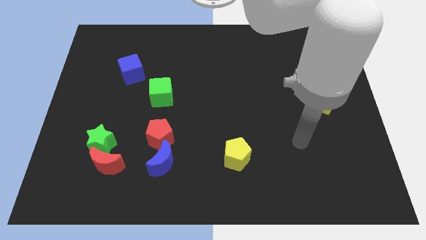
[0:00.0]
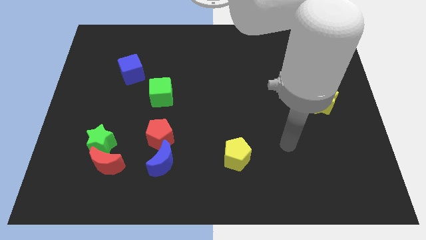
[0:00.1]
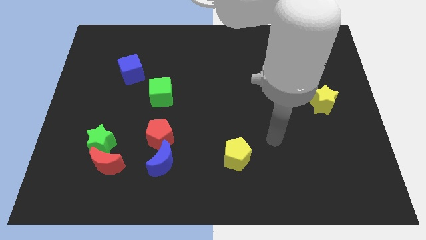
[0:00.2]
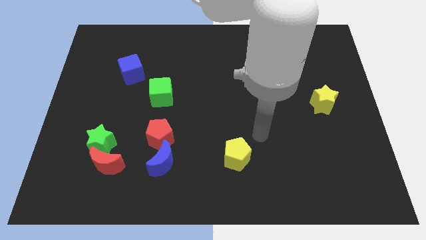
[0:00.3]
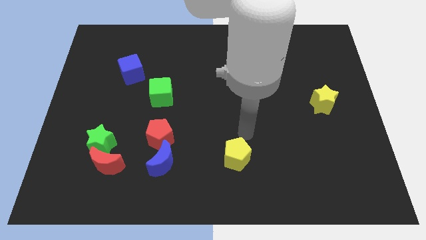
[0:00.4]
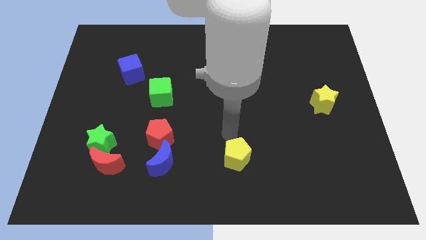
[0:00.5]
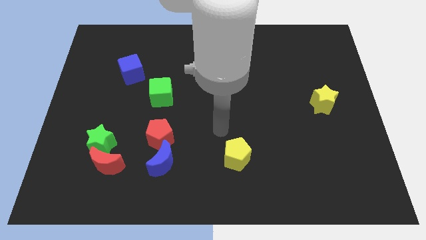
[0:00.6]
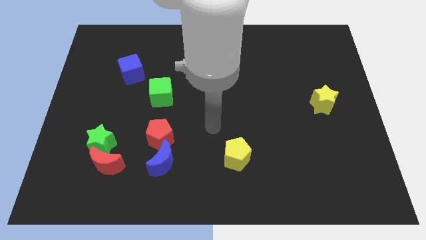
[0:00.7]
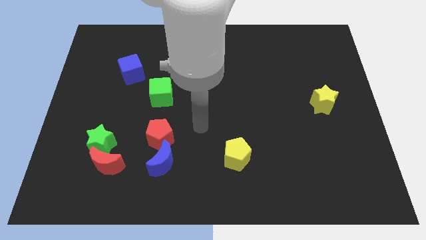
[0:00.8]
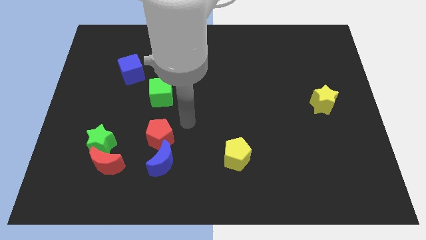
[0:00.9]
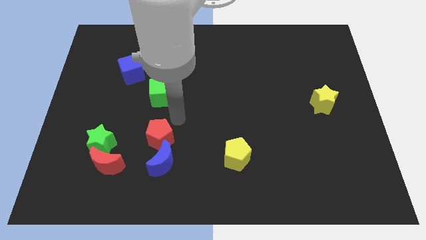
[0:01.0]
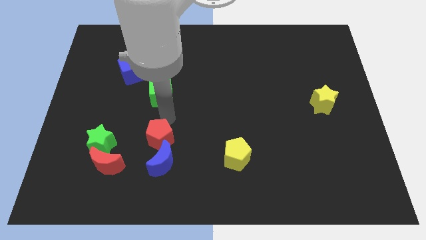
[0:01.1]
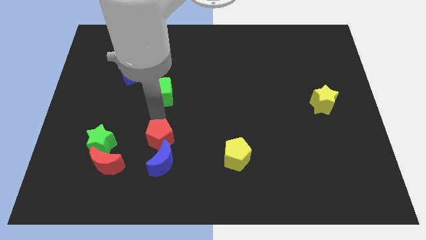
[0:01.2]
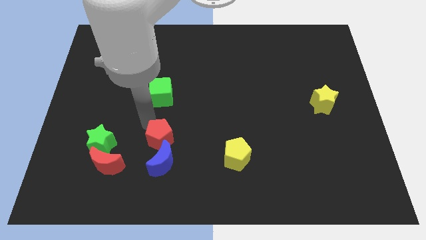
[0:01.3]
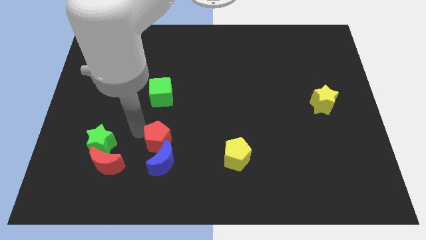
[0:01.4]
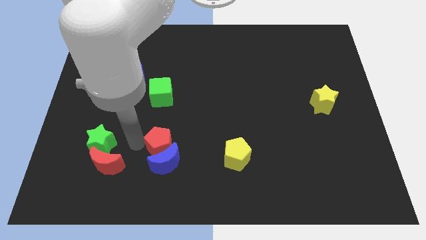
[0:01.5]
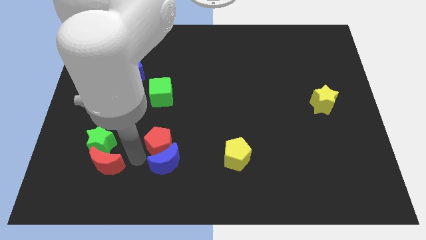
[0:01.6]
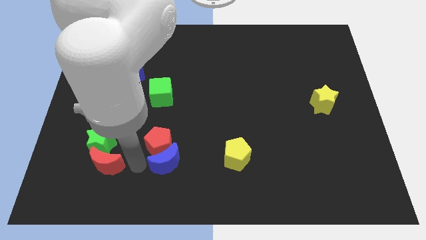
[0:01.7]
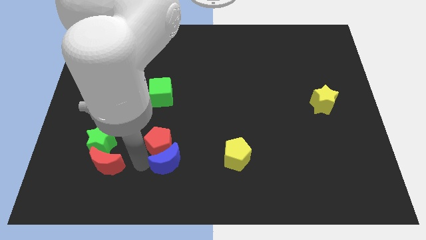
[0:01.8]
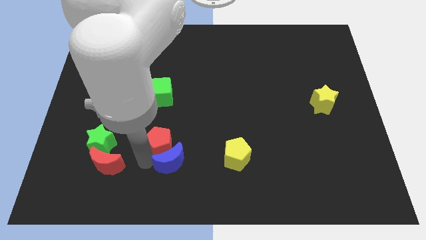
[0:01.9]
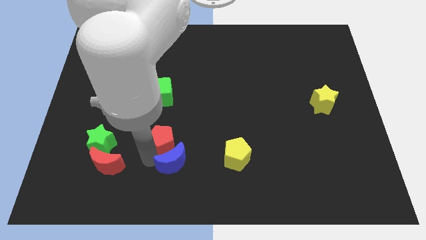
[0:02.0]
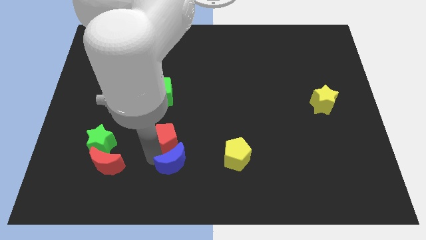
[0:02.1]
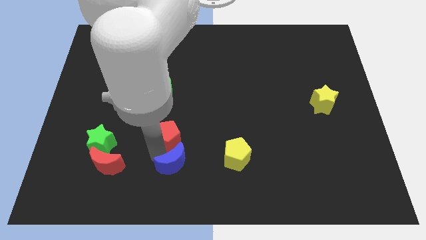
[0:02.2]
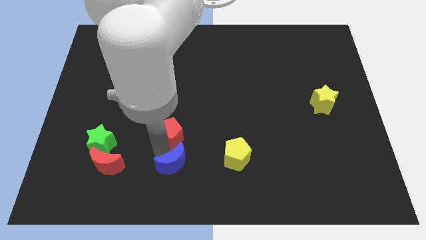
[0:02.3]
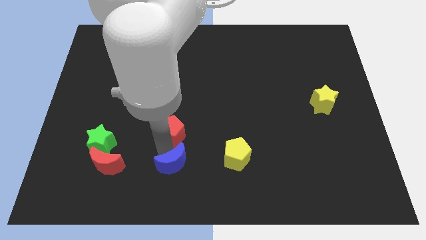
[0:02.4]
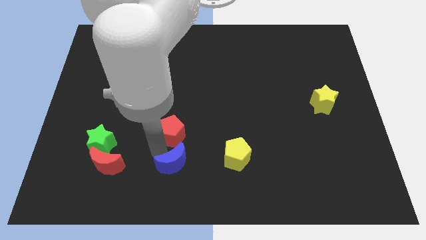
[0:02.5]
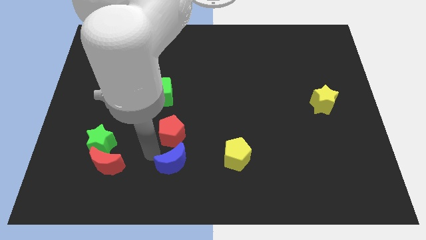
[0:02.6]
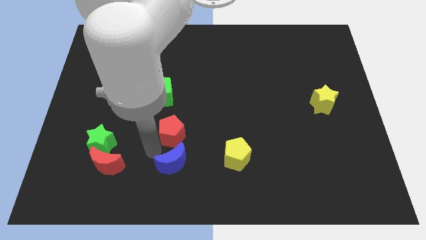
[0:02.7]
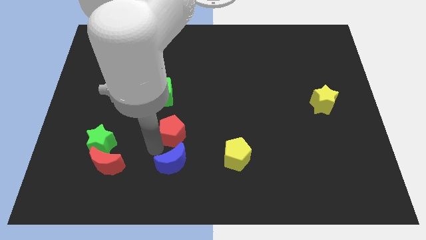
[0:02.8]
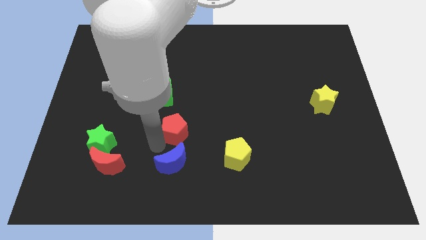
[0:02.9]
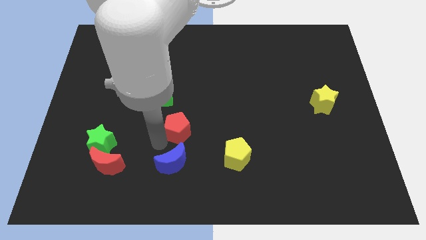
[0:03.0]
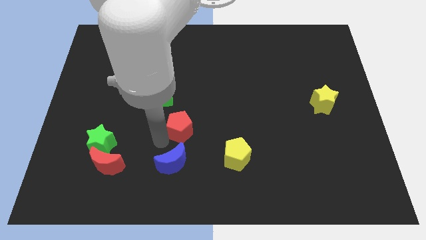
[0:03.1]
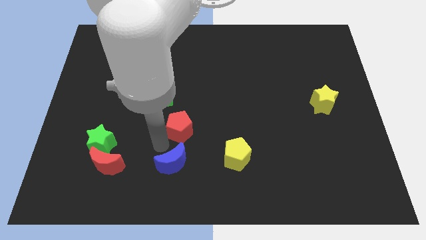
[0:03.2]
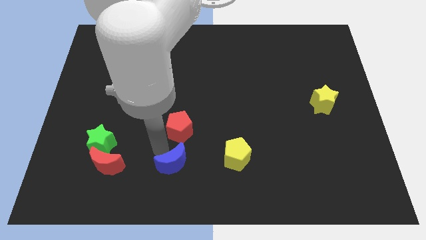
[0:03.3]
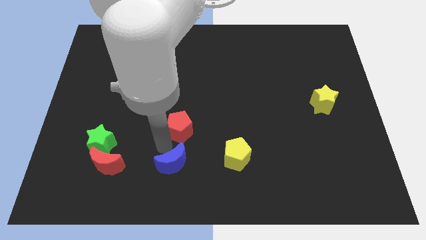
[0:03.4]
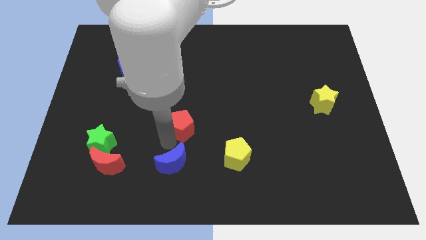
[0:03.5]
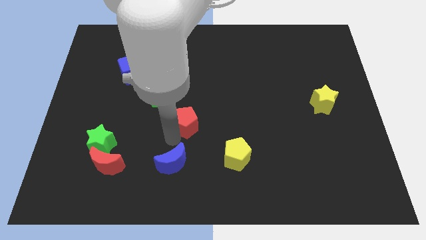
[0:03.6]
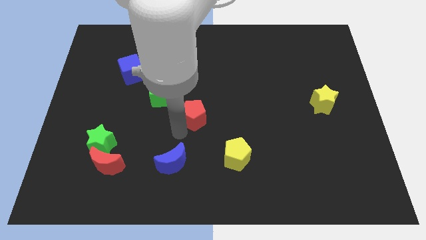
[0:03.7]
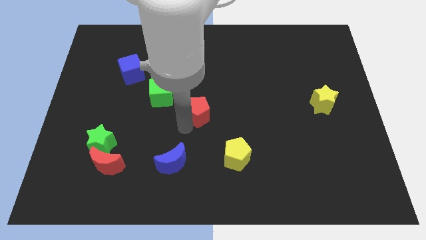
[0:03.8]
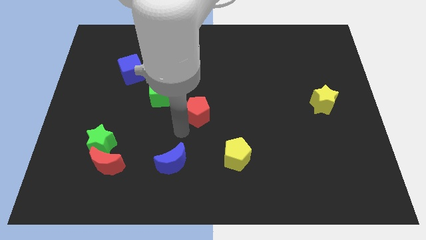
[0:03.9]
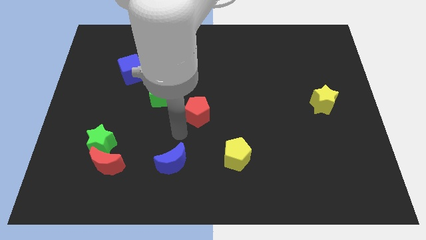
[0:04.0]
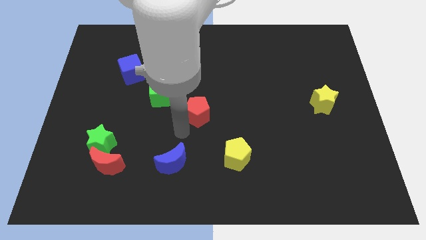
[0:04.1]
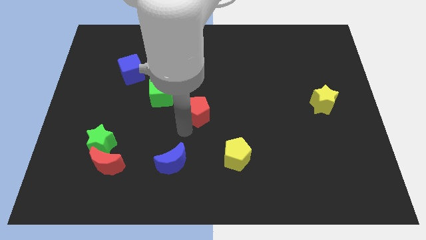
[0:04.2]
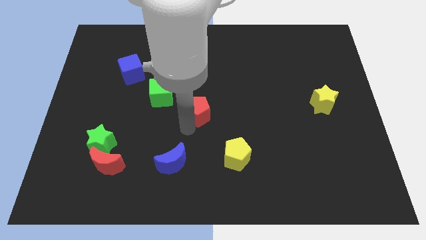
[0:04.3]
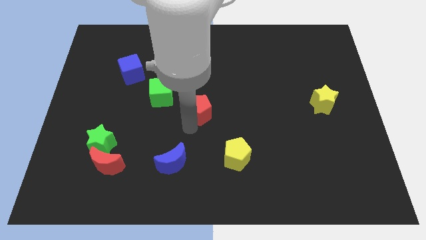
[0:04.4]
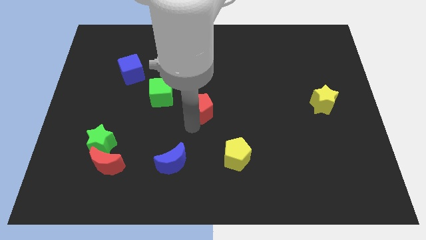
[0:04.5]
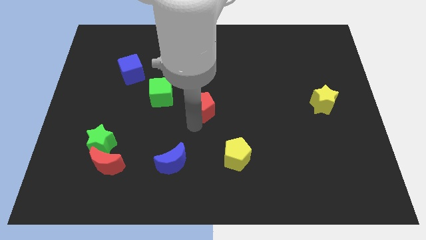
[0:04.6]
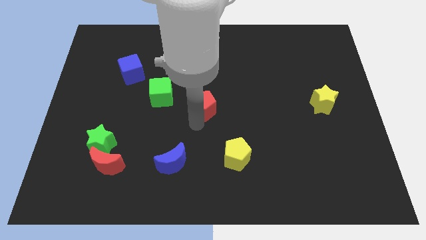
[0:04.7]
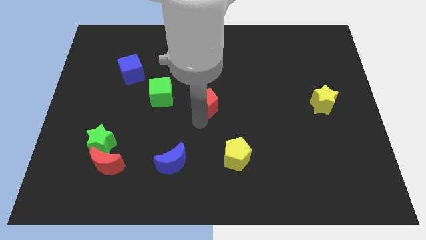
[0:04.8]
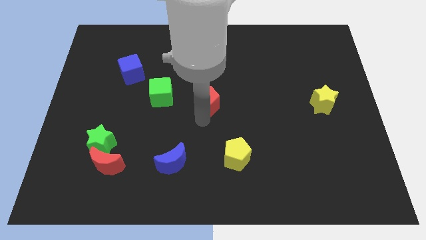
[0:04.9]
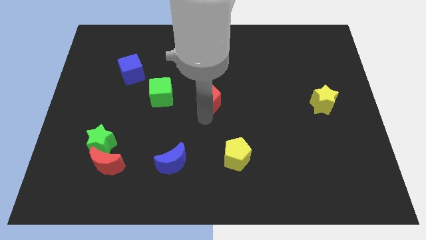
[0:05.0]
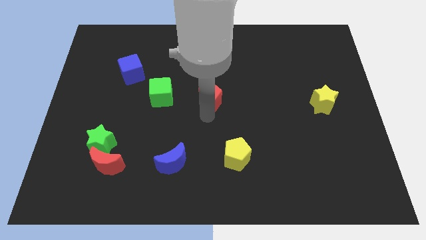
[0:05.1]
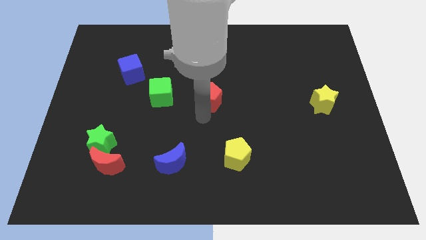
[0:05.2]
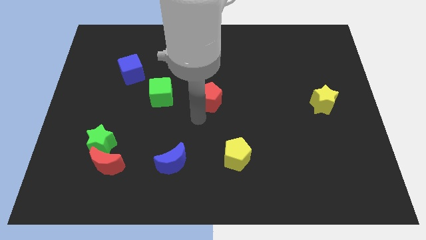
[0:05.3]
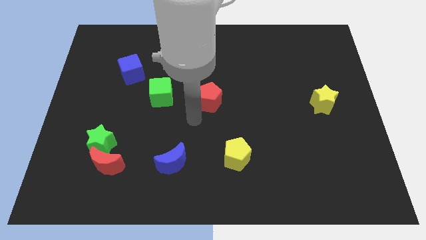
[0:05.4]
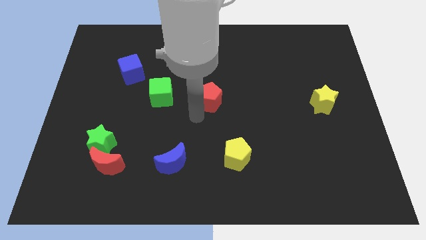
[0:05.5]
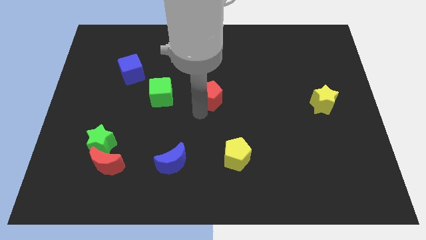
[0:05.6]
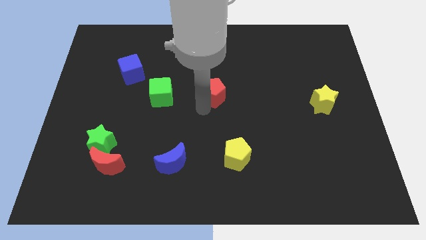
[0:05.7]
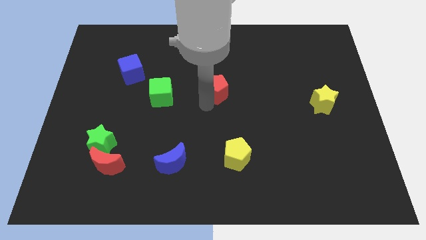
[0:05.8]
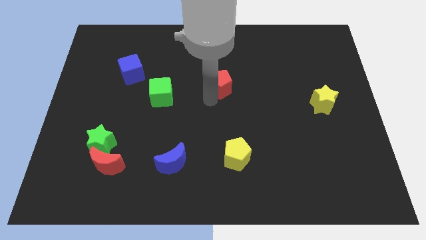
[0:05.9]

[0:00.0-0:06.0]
push the red pentagon up and to the right

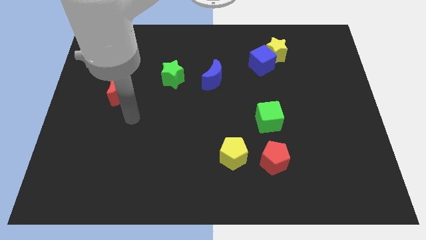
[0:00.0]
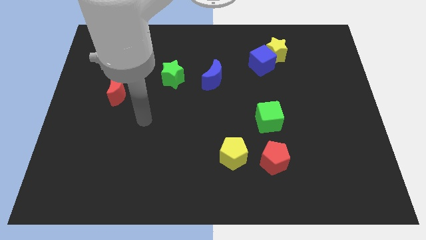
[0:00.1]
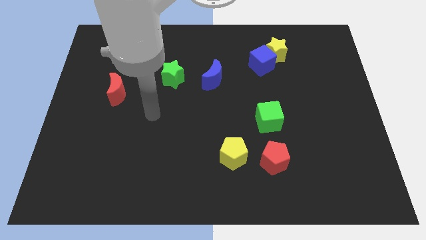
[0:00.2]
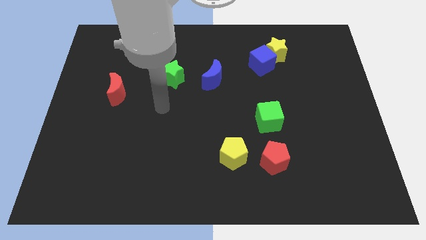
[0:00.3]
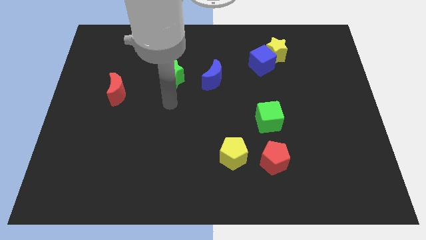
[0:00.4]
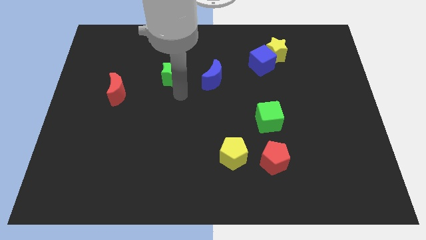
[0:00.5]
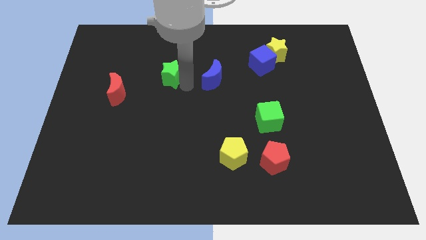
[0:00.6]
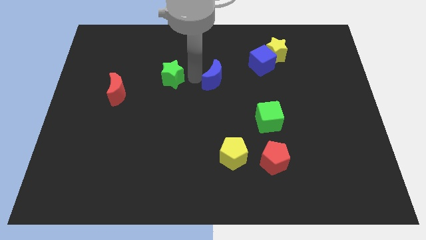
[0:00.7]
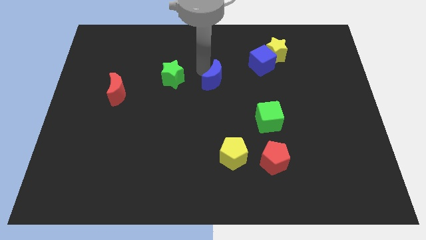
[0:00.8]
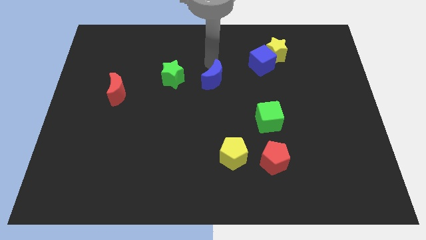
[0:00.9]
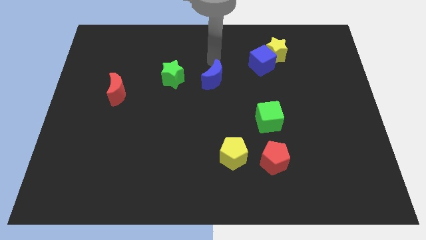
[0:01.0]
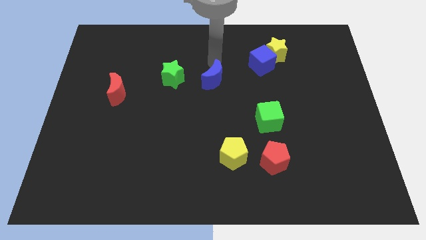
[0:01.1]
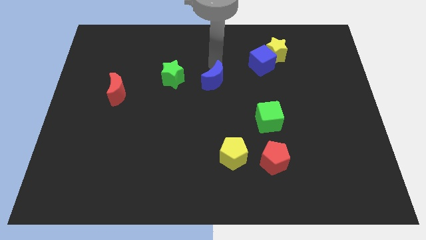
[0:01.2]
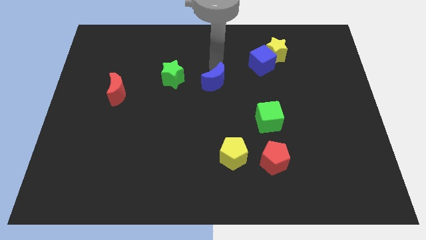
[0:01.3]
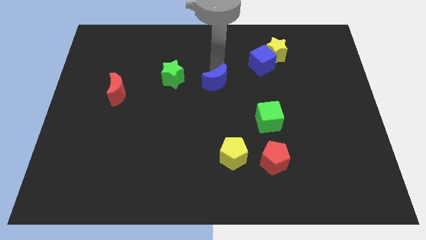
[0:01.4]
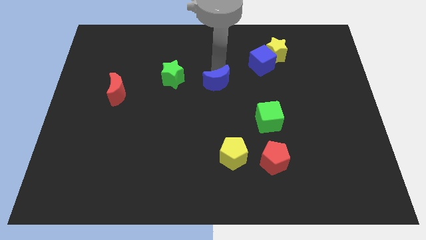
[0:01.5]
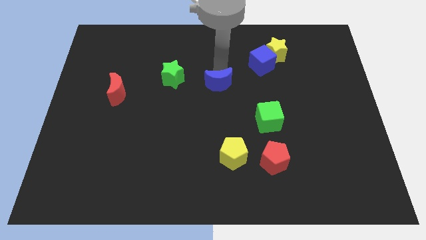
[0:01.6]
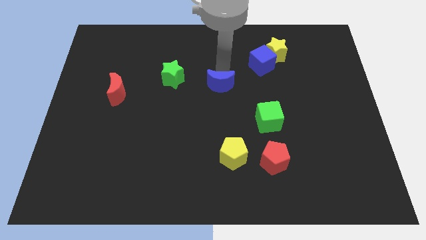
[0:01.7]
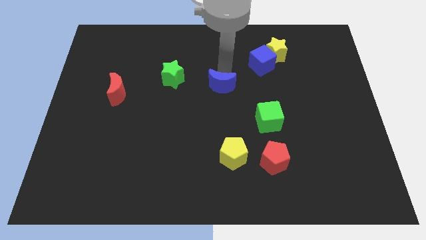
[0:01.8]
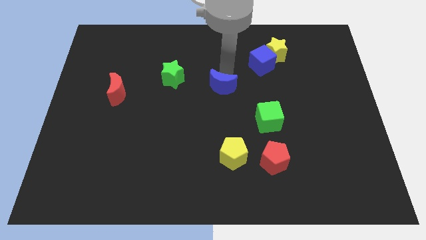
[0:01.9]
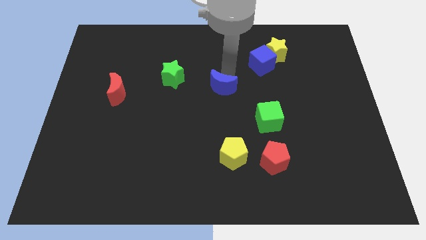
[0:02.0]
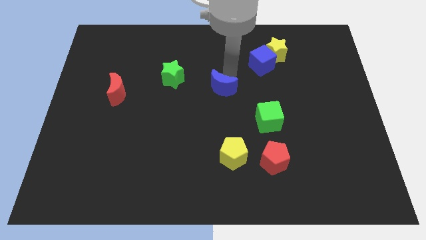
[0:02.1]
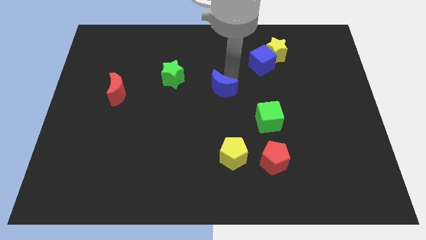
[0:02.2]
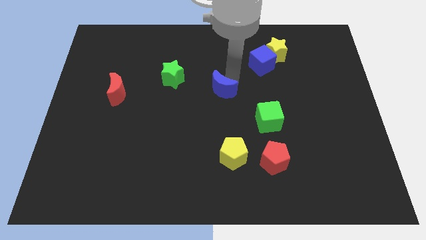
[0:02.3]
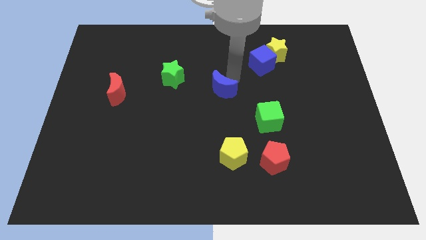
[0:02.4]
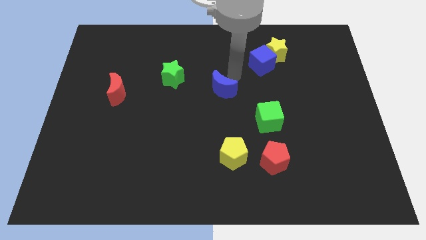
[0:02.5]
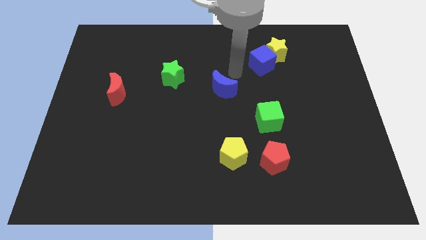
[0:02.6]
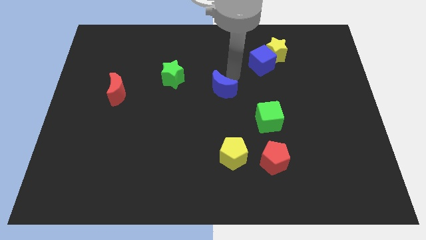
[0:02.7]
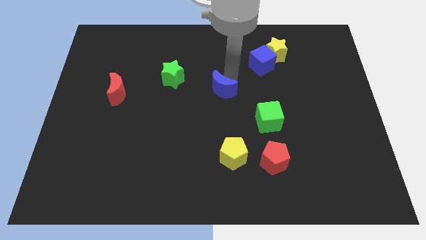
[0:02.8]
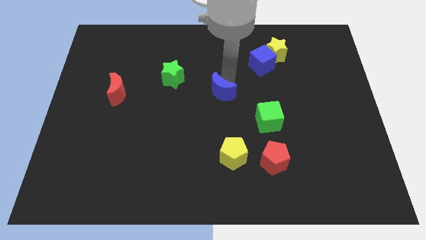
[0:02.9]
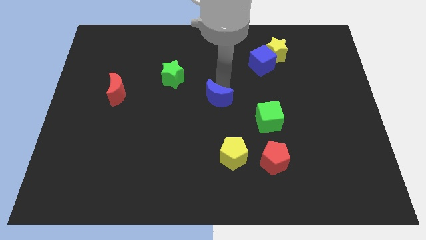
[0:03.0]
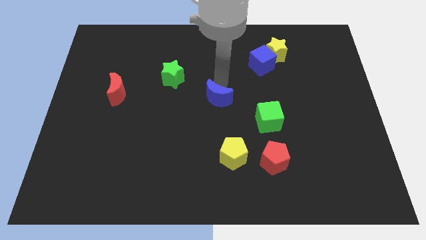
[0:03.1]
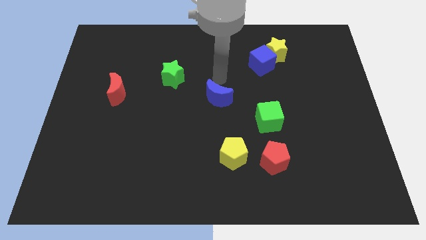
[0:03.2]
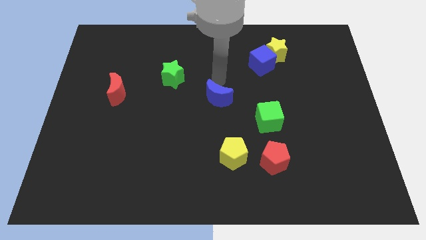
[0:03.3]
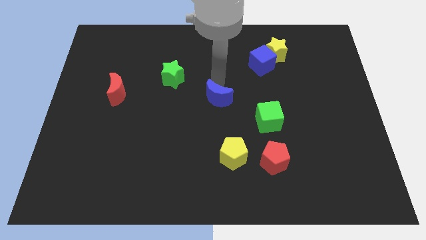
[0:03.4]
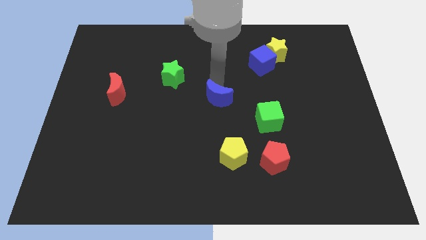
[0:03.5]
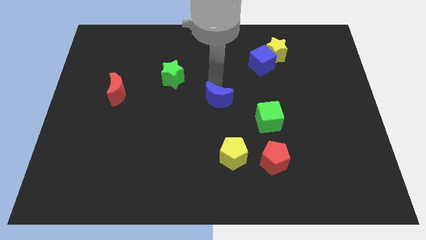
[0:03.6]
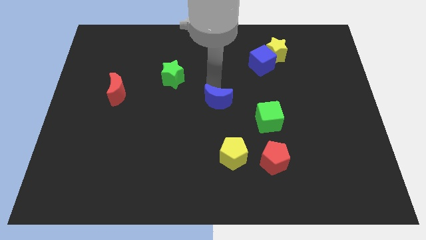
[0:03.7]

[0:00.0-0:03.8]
slightly slide the blue moon downwards
